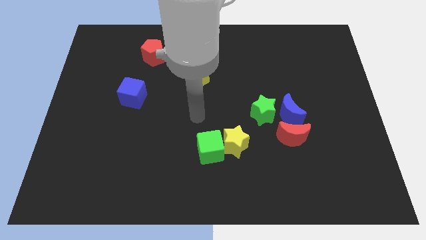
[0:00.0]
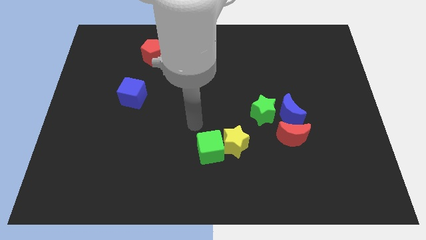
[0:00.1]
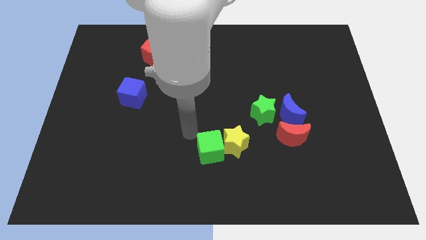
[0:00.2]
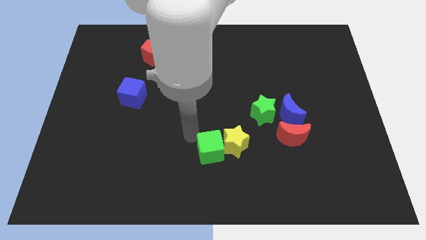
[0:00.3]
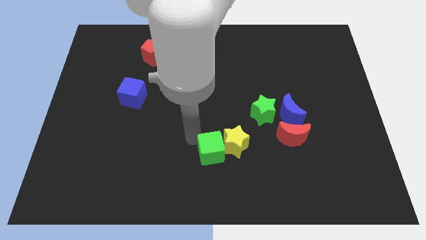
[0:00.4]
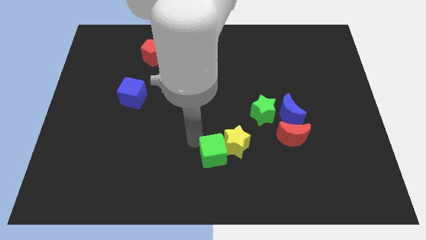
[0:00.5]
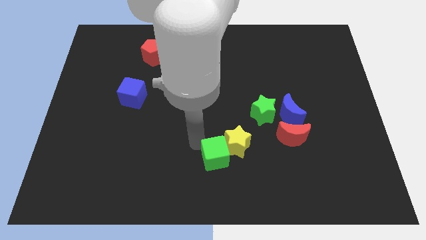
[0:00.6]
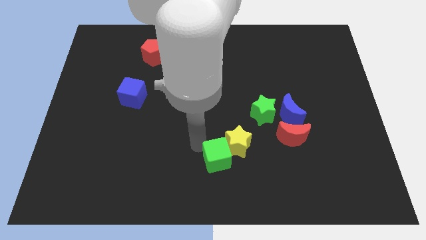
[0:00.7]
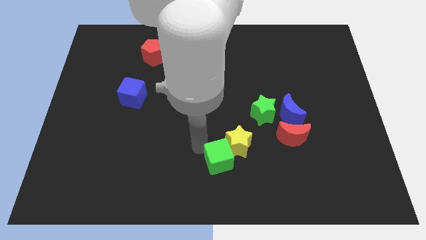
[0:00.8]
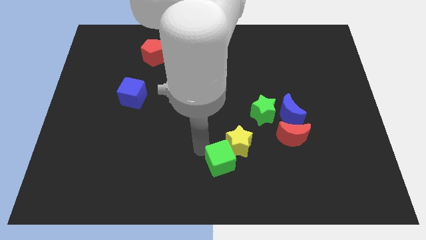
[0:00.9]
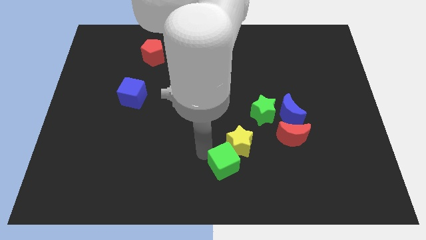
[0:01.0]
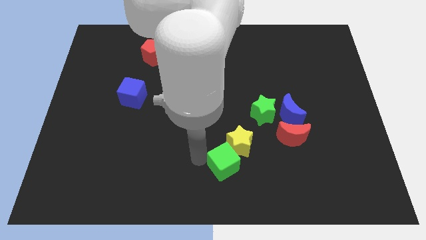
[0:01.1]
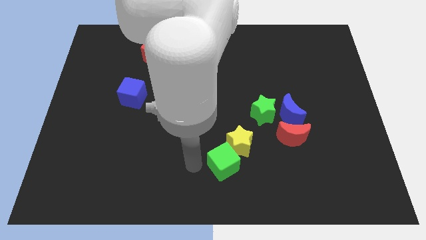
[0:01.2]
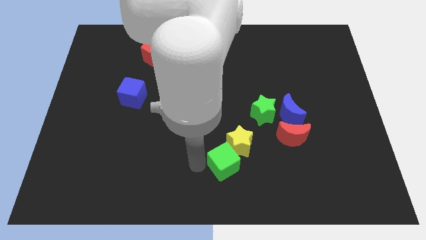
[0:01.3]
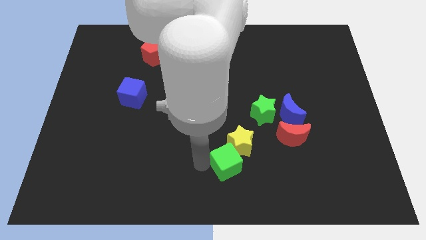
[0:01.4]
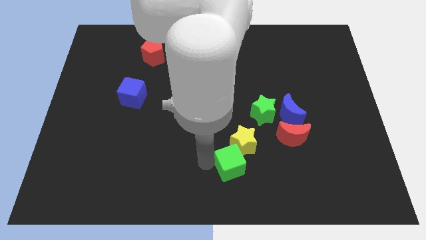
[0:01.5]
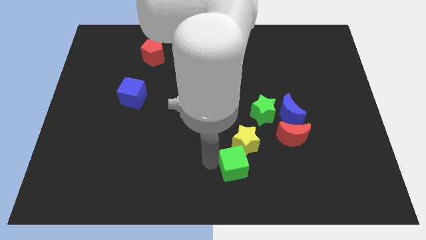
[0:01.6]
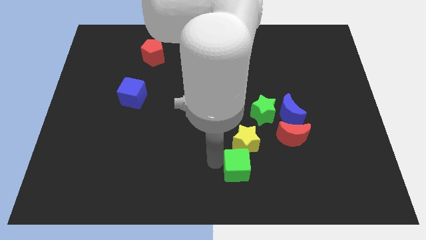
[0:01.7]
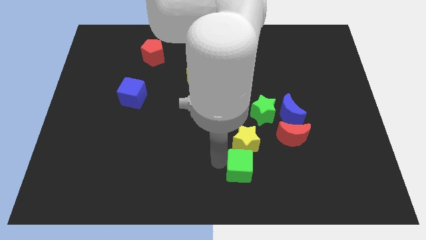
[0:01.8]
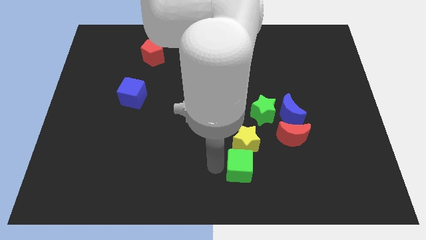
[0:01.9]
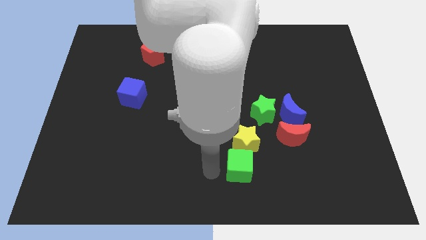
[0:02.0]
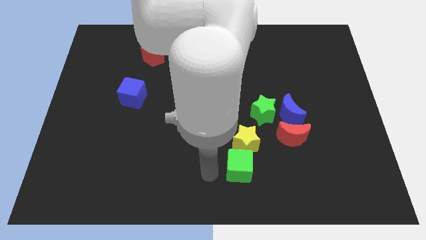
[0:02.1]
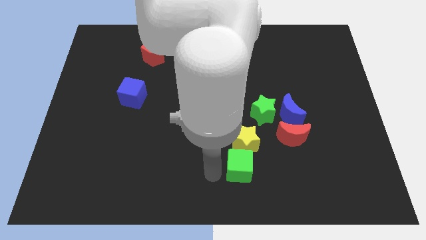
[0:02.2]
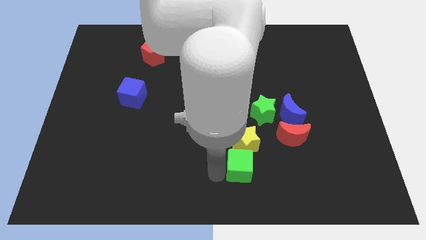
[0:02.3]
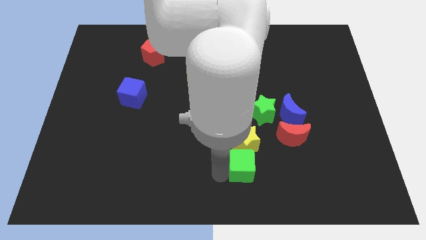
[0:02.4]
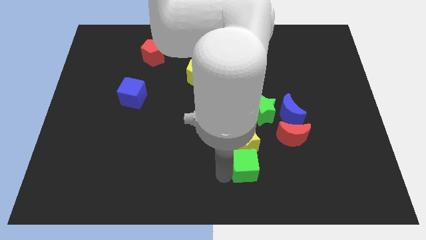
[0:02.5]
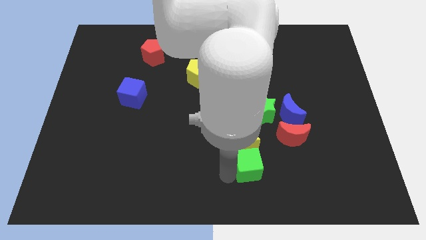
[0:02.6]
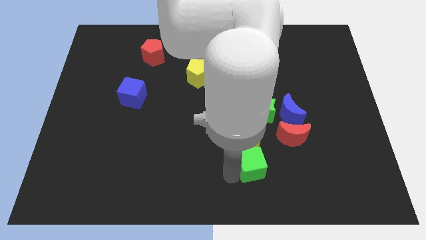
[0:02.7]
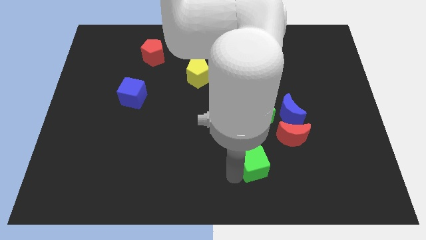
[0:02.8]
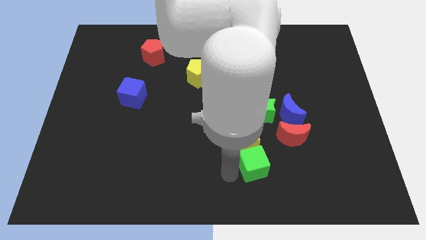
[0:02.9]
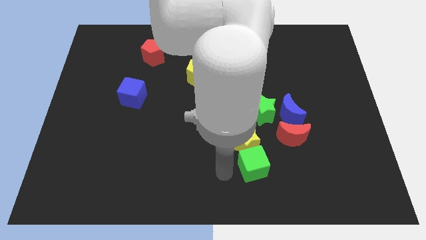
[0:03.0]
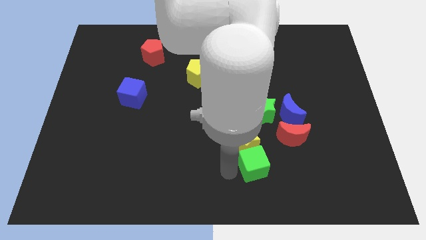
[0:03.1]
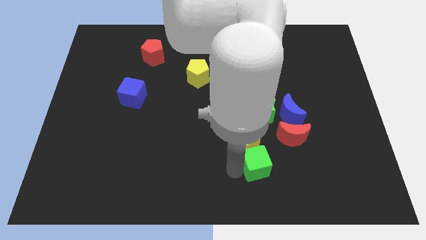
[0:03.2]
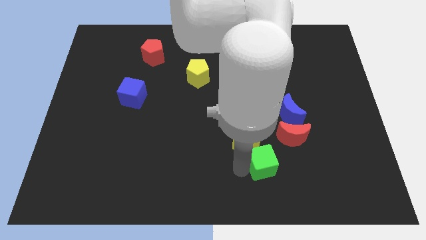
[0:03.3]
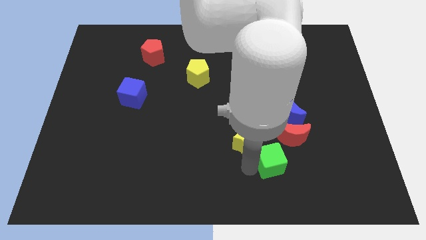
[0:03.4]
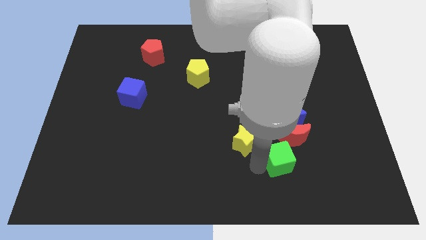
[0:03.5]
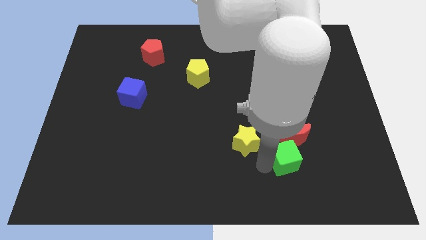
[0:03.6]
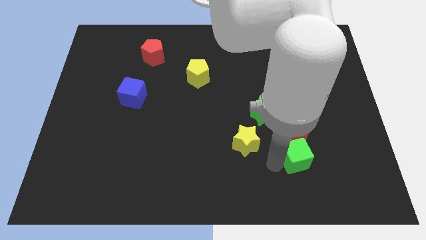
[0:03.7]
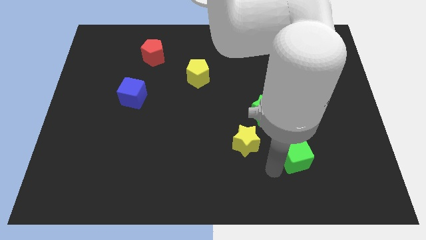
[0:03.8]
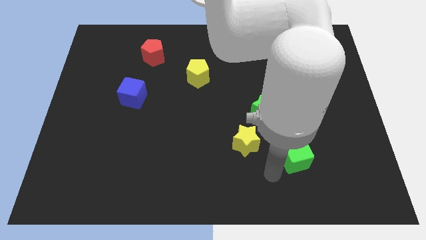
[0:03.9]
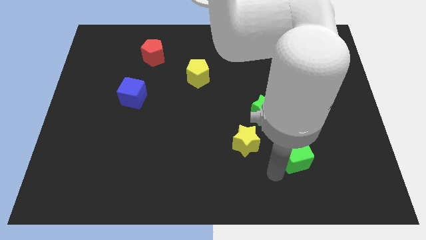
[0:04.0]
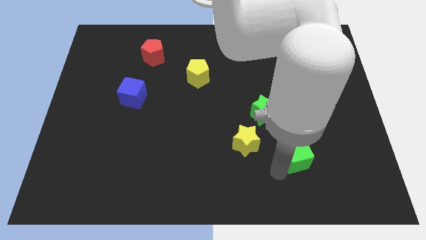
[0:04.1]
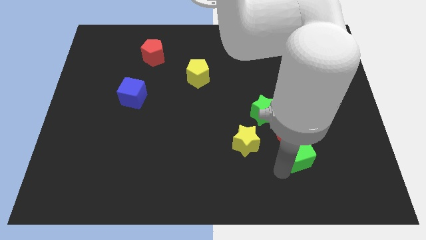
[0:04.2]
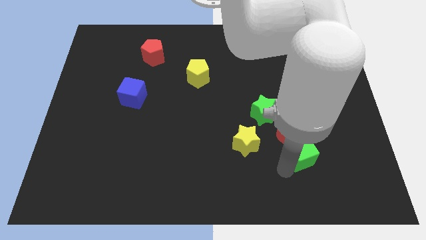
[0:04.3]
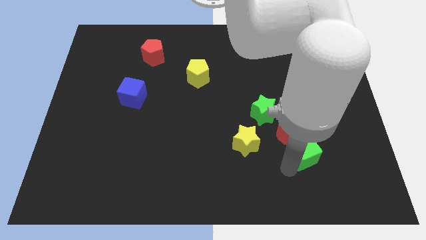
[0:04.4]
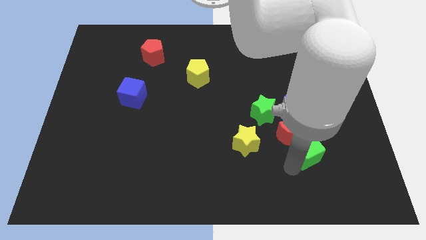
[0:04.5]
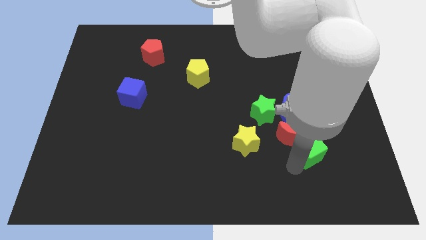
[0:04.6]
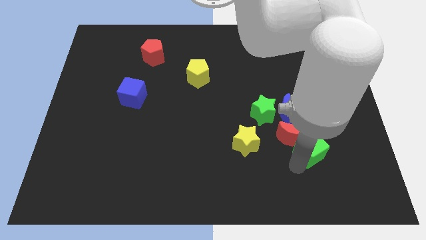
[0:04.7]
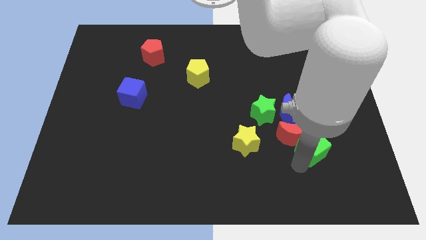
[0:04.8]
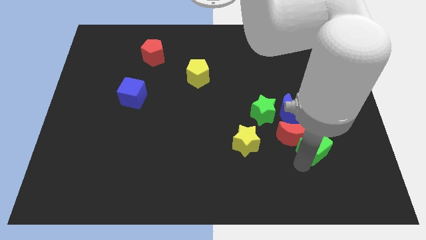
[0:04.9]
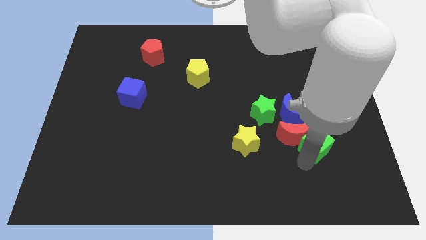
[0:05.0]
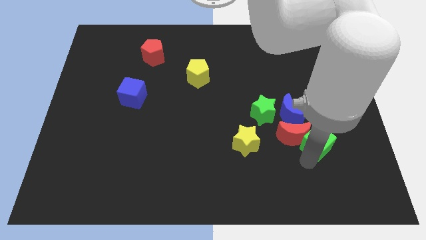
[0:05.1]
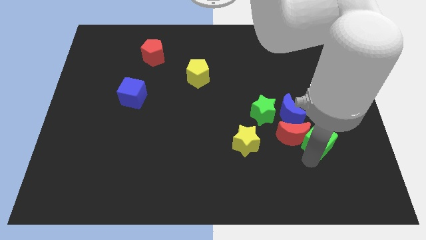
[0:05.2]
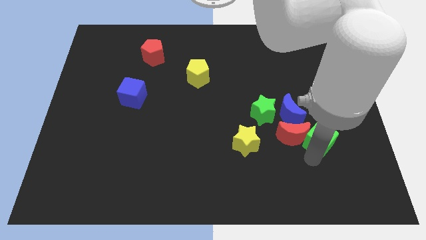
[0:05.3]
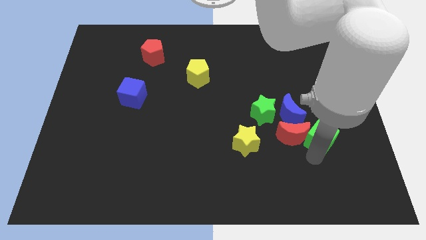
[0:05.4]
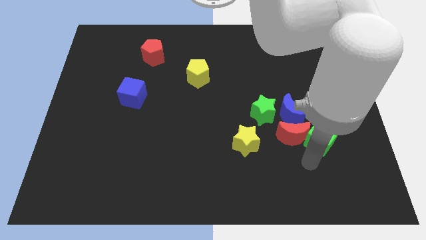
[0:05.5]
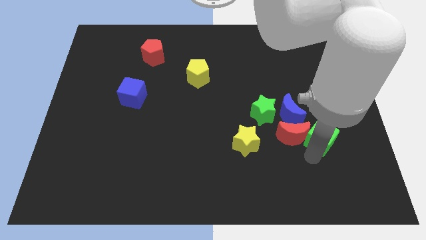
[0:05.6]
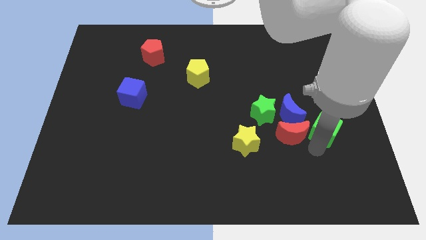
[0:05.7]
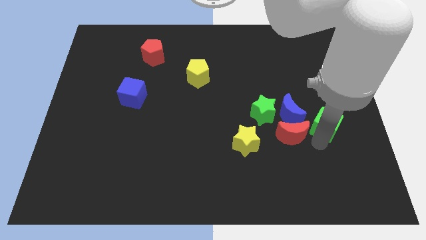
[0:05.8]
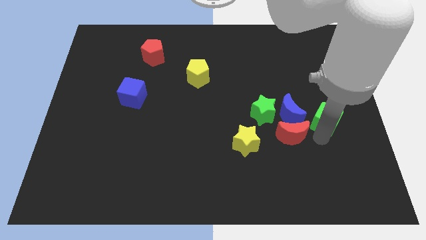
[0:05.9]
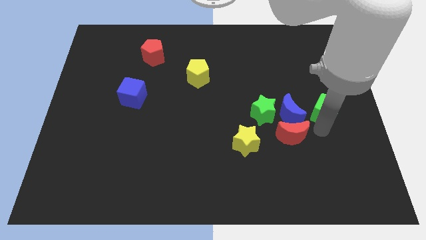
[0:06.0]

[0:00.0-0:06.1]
slide the green cube to the right side of the board
